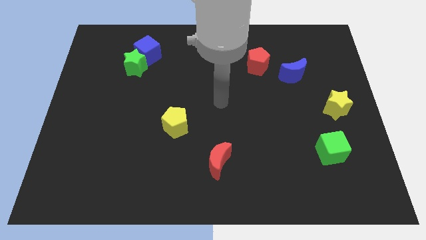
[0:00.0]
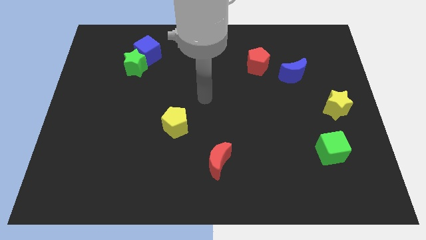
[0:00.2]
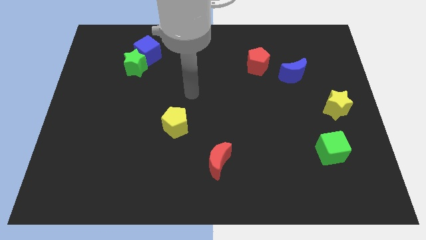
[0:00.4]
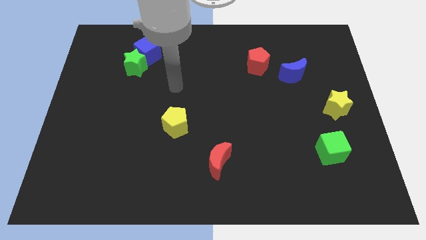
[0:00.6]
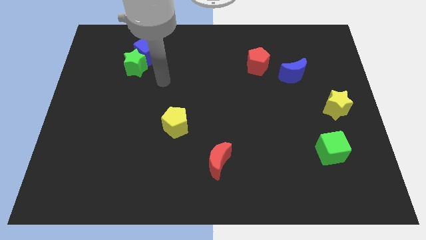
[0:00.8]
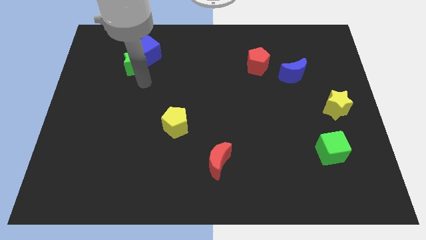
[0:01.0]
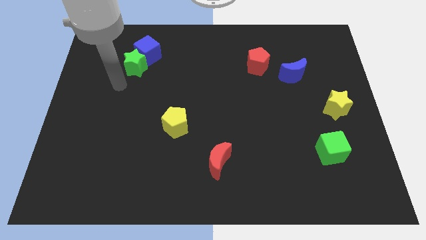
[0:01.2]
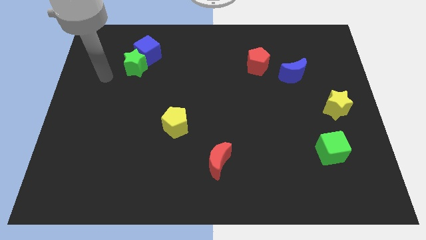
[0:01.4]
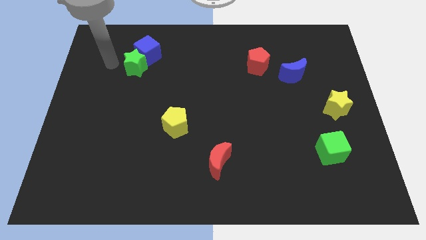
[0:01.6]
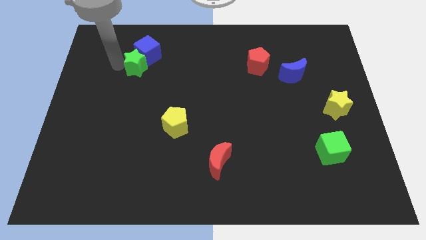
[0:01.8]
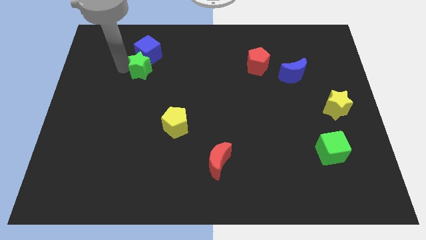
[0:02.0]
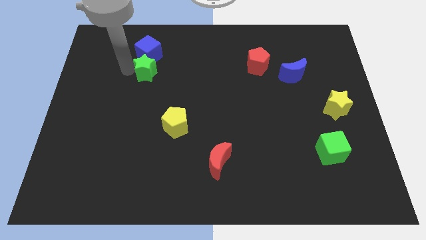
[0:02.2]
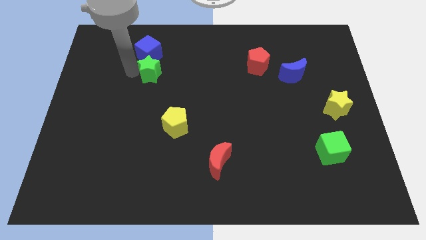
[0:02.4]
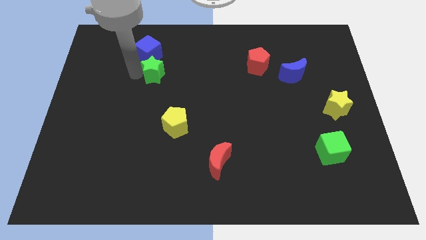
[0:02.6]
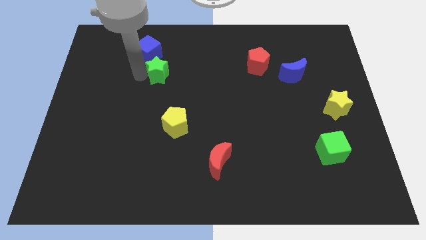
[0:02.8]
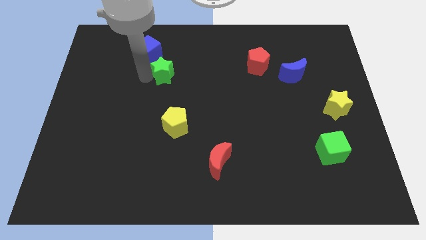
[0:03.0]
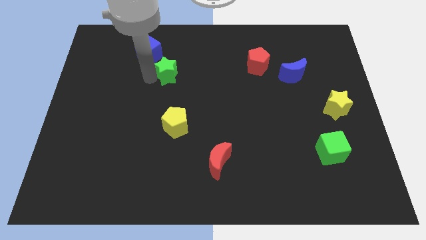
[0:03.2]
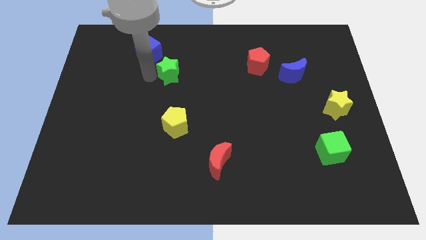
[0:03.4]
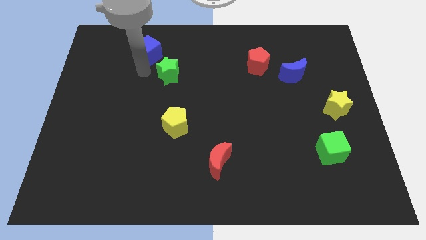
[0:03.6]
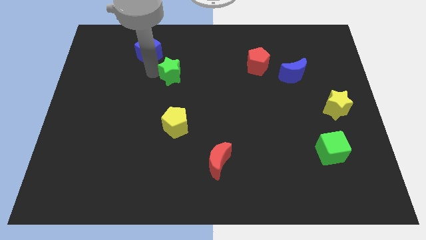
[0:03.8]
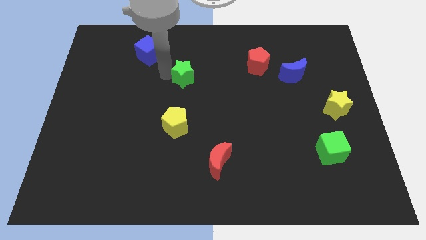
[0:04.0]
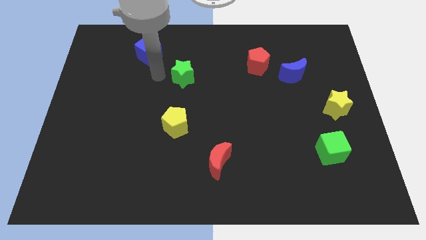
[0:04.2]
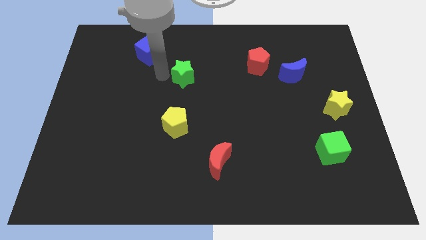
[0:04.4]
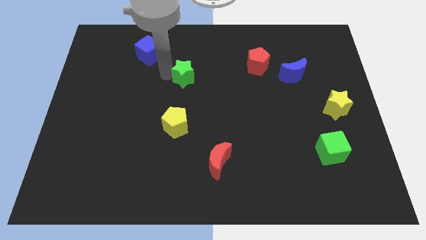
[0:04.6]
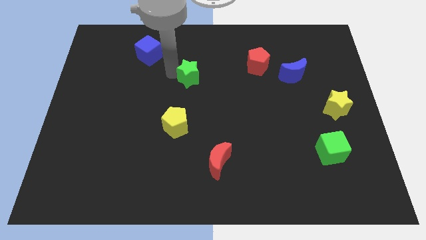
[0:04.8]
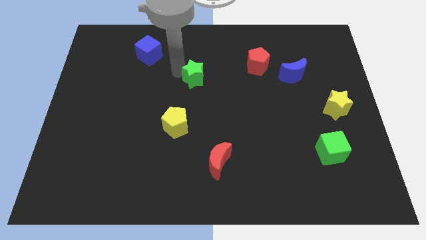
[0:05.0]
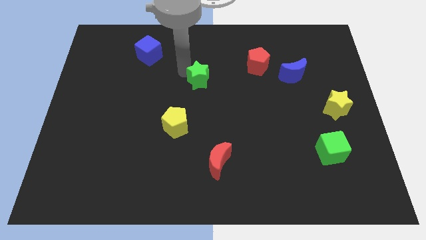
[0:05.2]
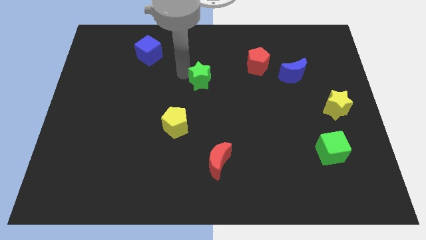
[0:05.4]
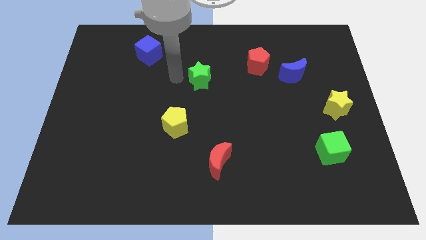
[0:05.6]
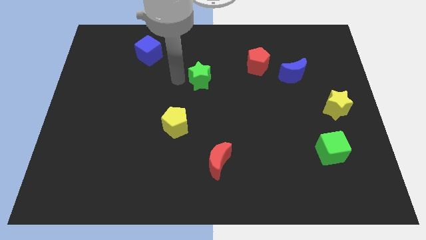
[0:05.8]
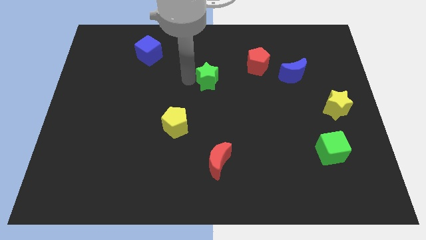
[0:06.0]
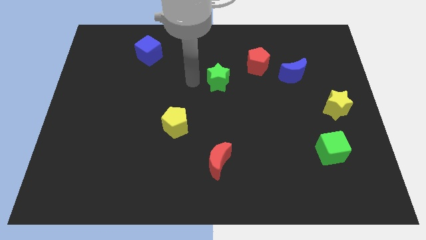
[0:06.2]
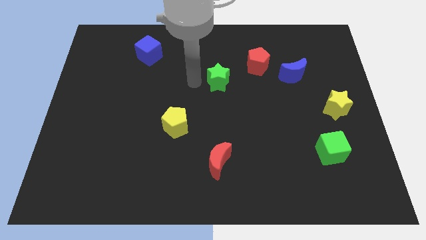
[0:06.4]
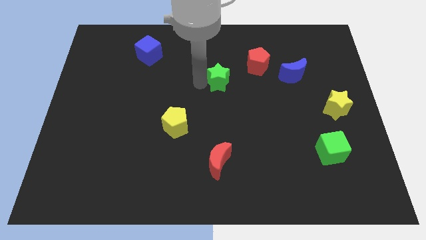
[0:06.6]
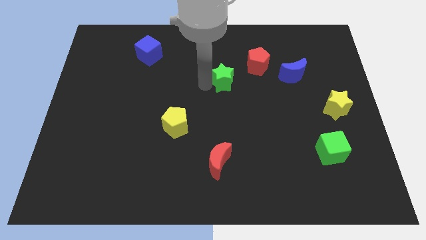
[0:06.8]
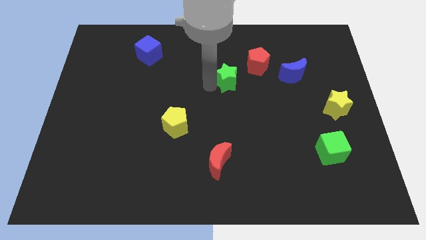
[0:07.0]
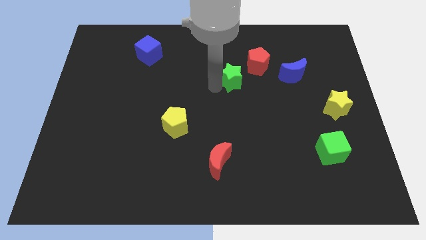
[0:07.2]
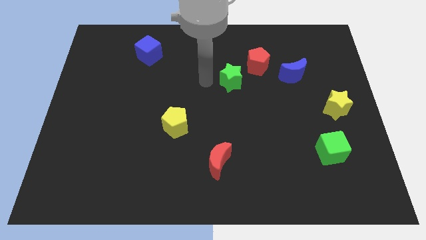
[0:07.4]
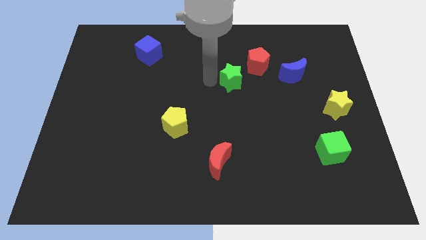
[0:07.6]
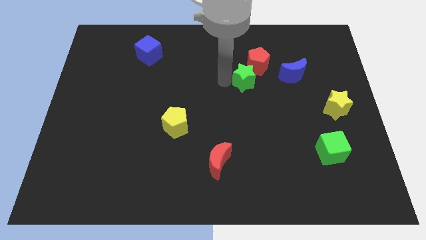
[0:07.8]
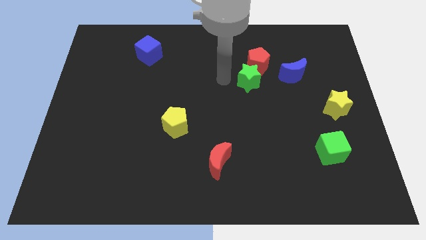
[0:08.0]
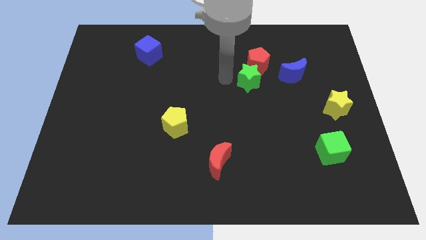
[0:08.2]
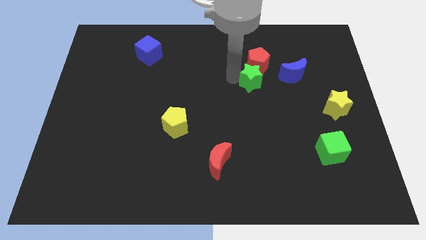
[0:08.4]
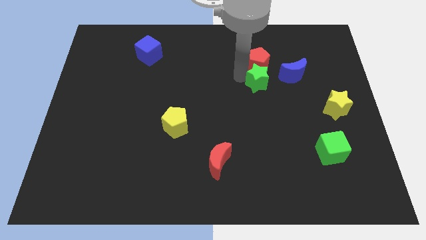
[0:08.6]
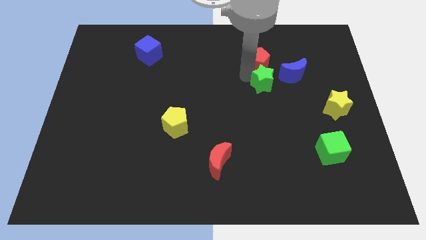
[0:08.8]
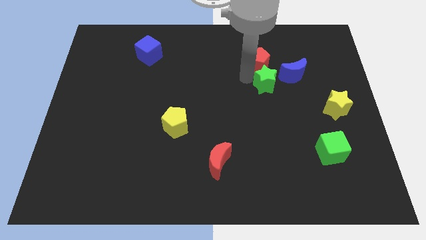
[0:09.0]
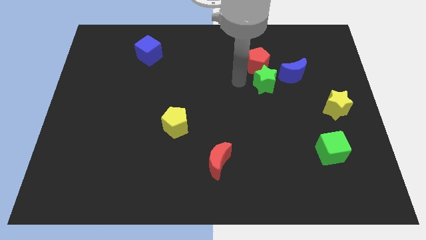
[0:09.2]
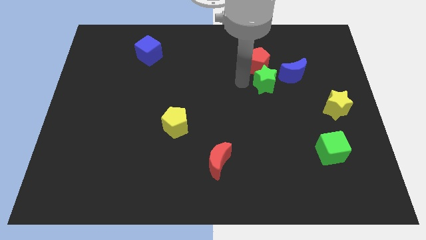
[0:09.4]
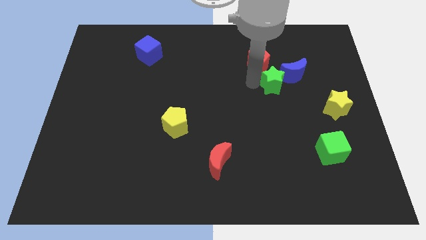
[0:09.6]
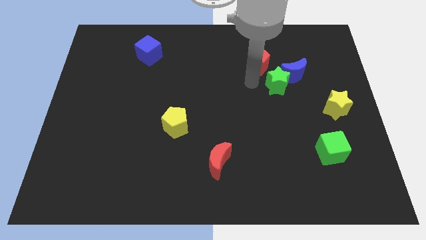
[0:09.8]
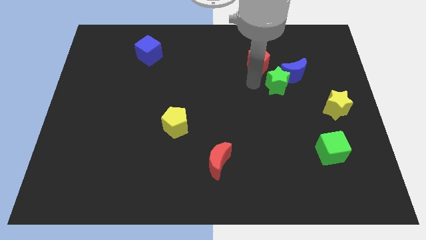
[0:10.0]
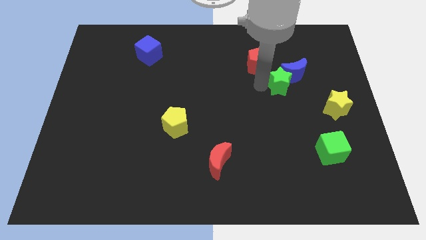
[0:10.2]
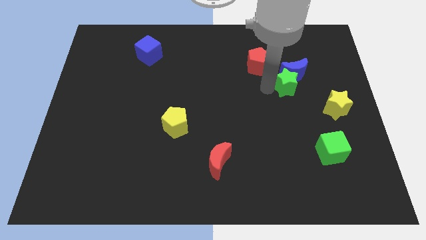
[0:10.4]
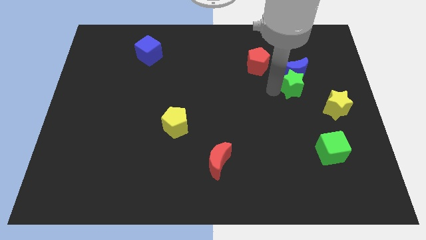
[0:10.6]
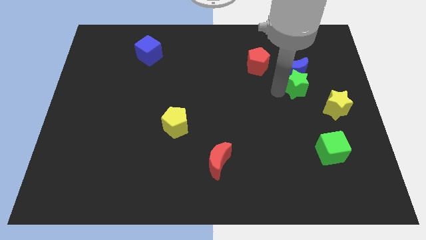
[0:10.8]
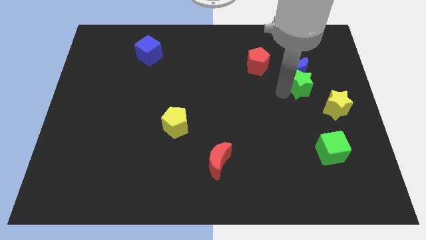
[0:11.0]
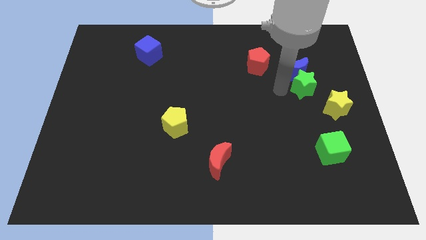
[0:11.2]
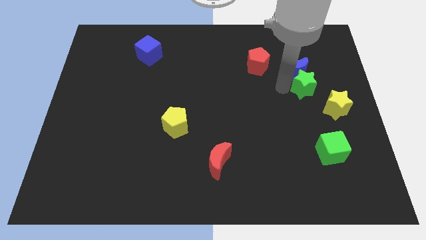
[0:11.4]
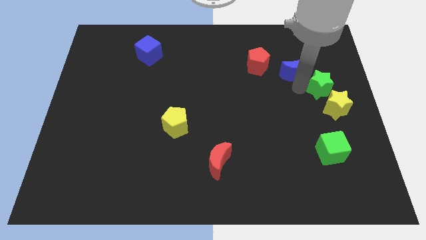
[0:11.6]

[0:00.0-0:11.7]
push the green star to the center right

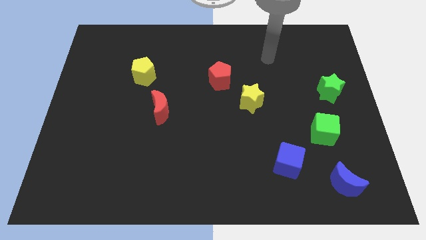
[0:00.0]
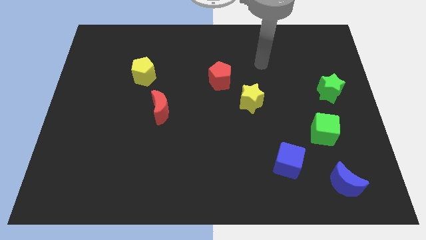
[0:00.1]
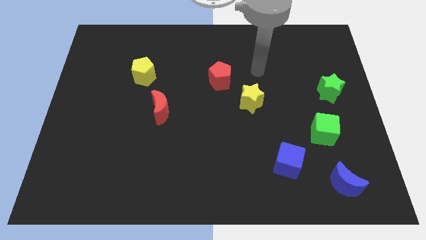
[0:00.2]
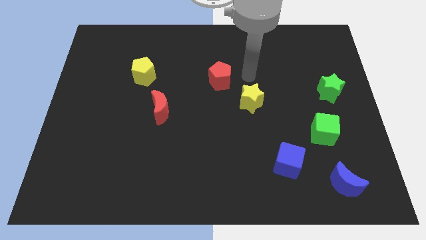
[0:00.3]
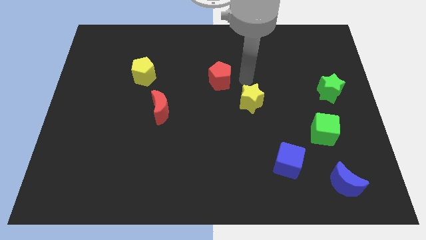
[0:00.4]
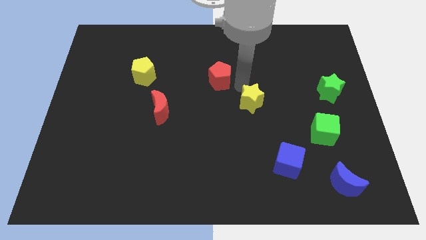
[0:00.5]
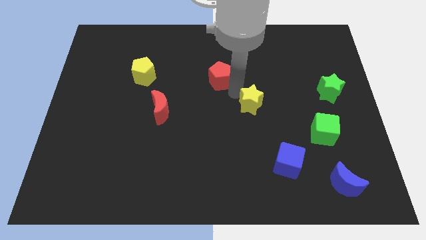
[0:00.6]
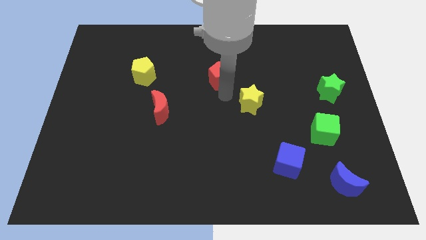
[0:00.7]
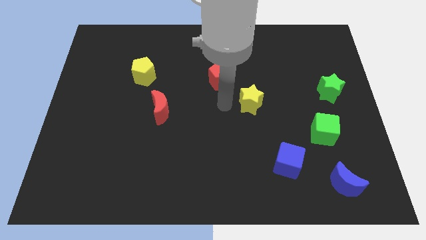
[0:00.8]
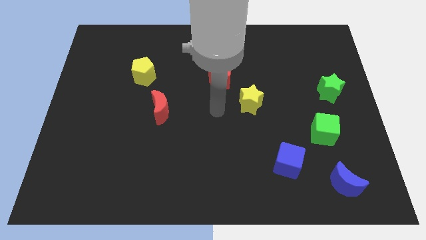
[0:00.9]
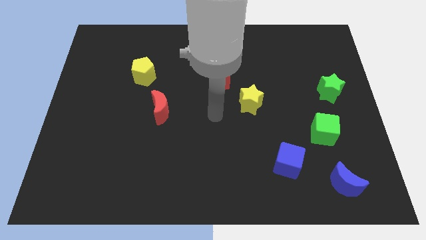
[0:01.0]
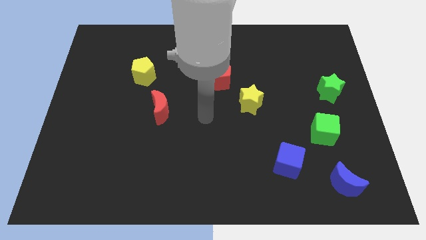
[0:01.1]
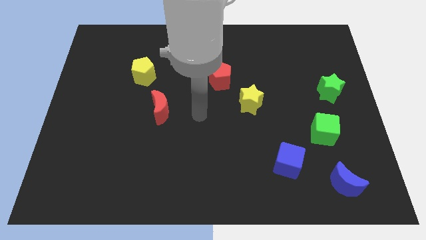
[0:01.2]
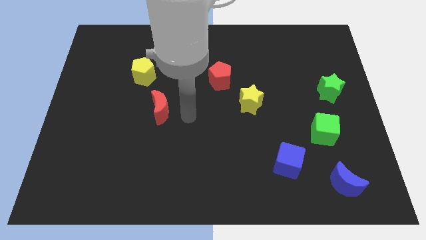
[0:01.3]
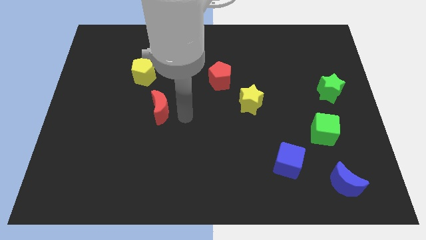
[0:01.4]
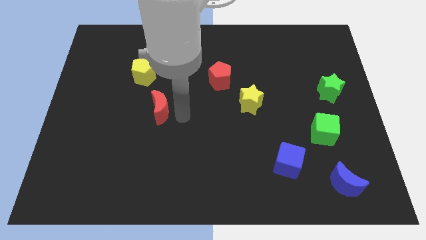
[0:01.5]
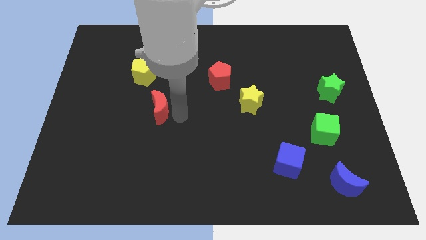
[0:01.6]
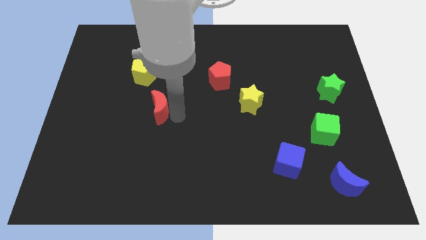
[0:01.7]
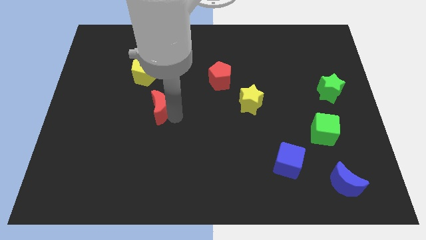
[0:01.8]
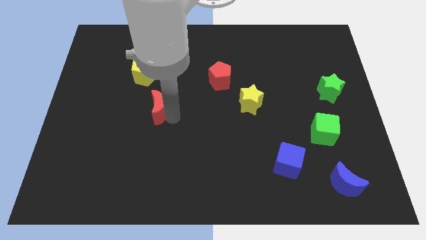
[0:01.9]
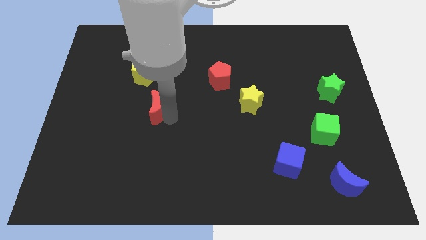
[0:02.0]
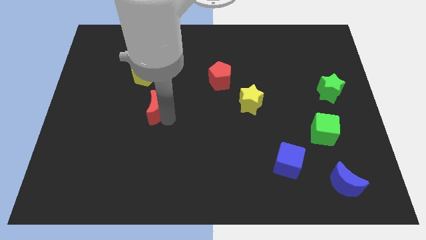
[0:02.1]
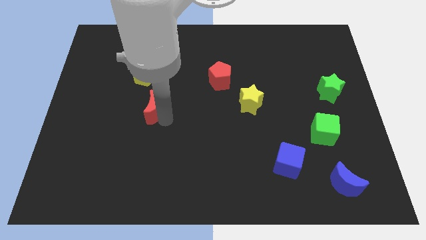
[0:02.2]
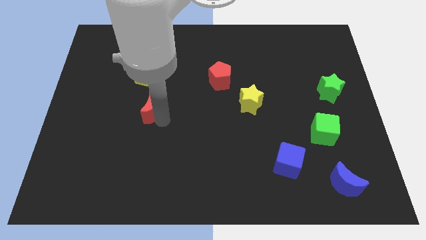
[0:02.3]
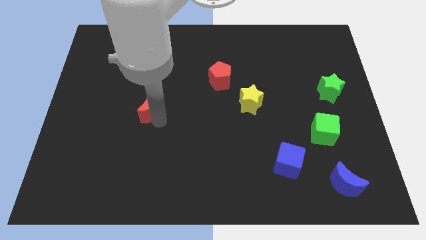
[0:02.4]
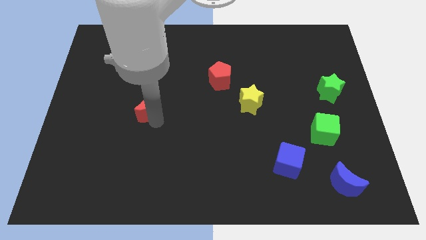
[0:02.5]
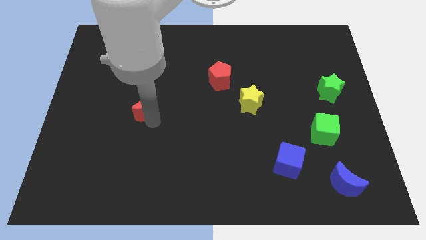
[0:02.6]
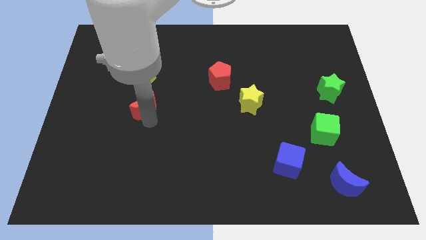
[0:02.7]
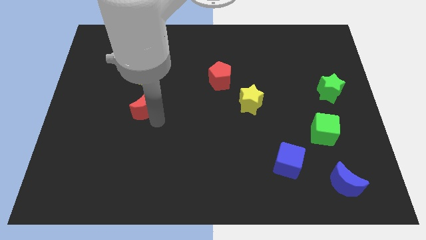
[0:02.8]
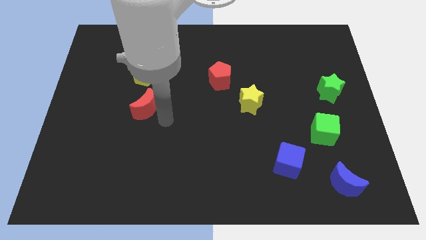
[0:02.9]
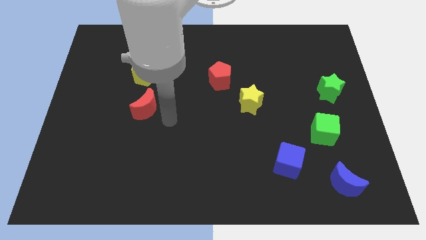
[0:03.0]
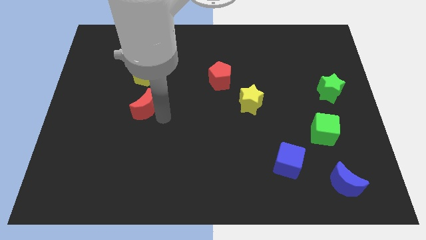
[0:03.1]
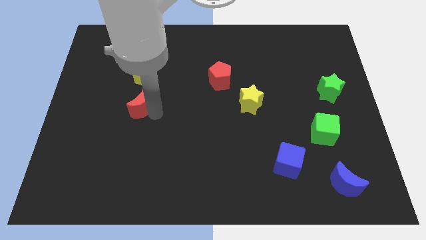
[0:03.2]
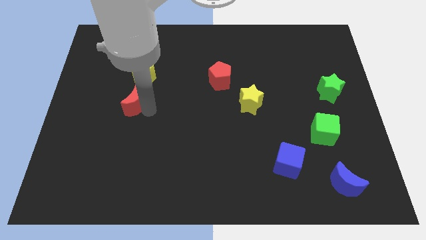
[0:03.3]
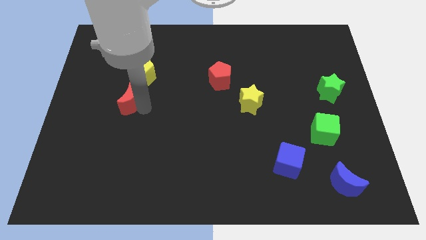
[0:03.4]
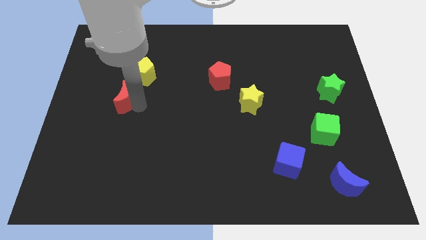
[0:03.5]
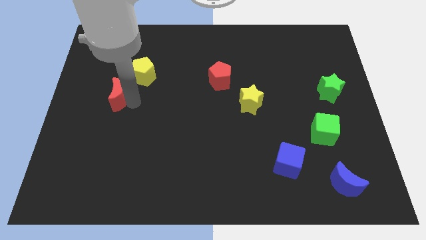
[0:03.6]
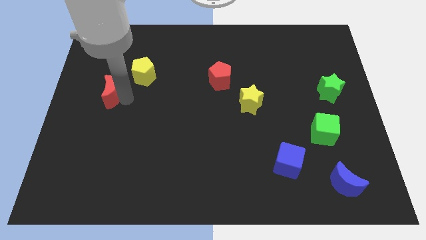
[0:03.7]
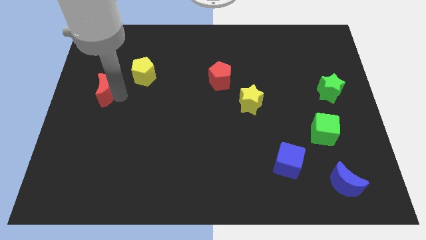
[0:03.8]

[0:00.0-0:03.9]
put the red moon to the center left
